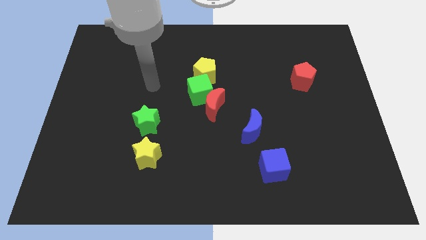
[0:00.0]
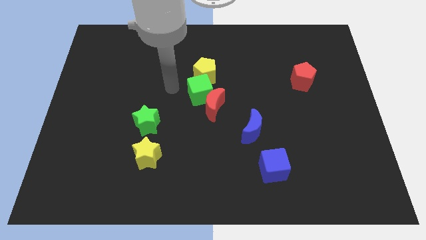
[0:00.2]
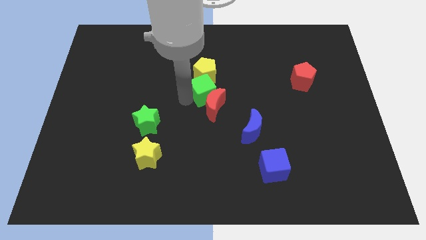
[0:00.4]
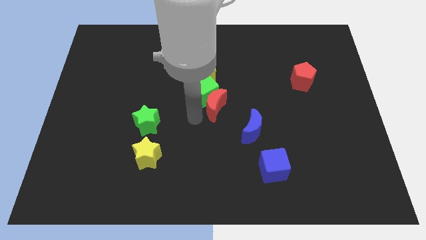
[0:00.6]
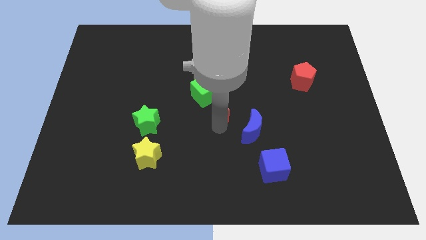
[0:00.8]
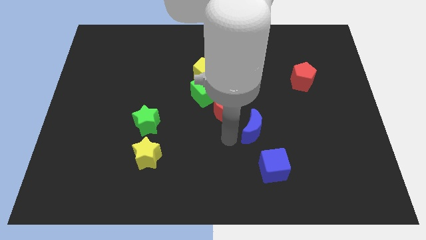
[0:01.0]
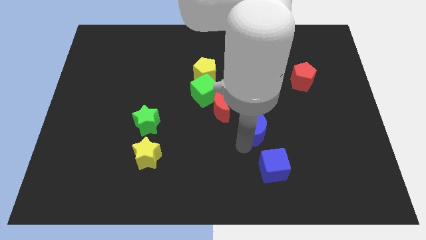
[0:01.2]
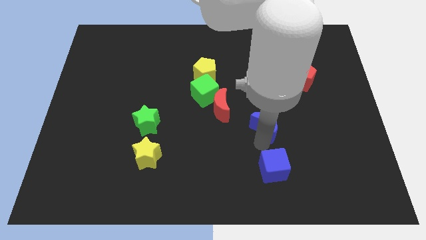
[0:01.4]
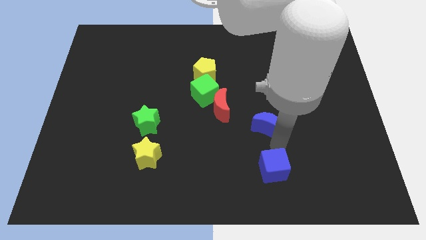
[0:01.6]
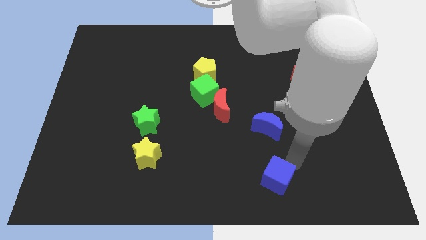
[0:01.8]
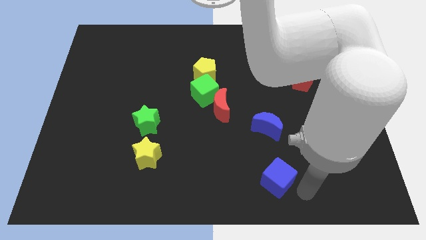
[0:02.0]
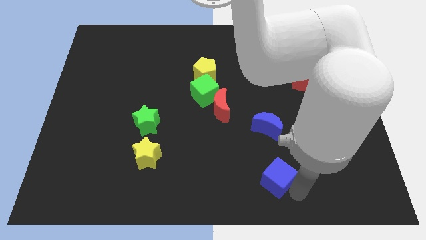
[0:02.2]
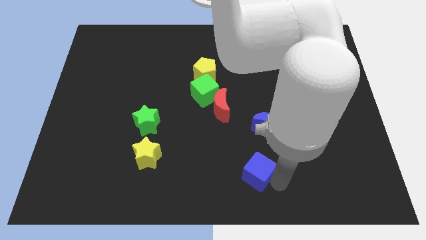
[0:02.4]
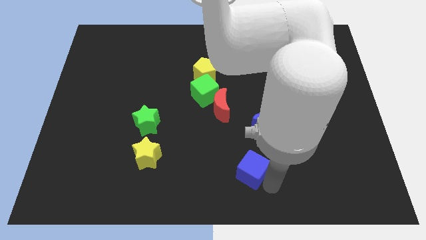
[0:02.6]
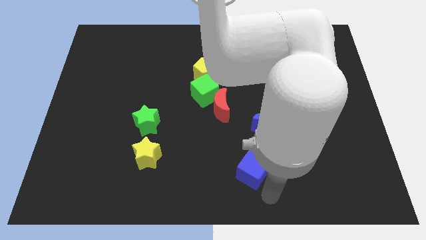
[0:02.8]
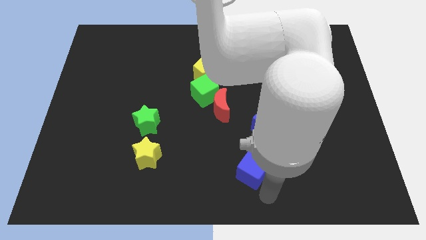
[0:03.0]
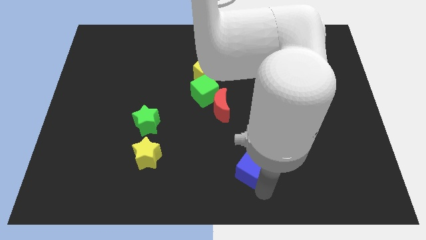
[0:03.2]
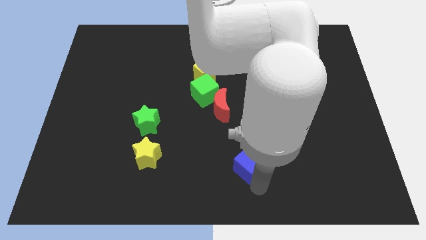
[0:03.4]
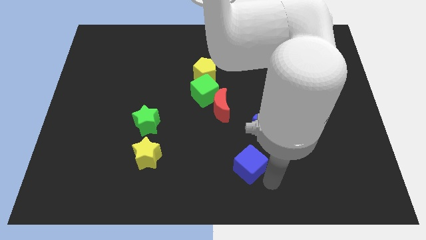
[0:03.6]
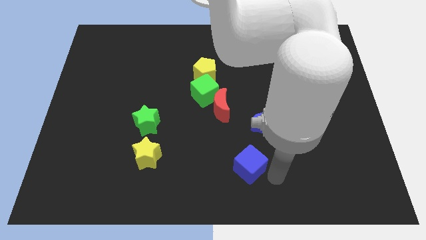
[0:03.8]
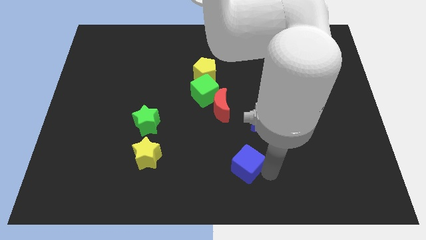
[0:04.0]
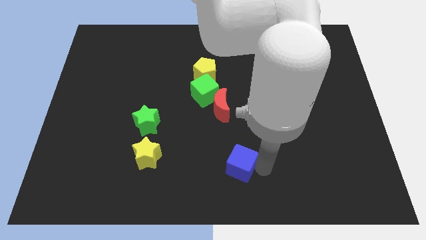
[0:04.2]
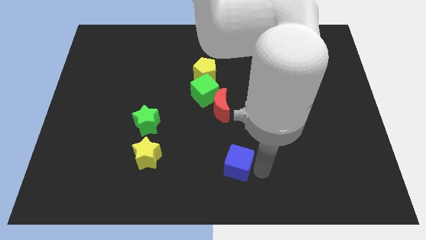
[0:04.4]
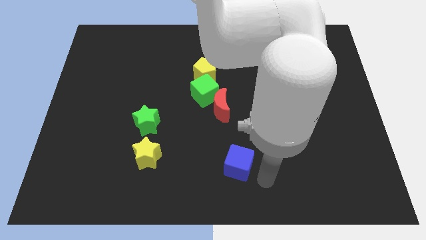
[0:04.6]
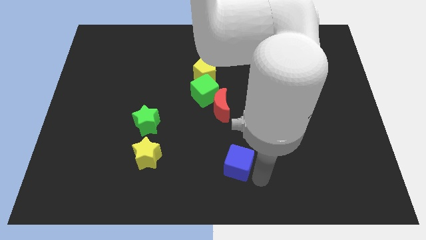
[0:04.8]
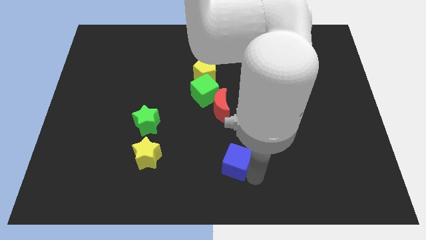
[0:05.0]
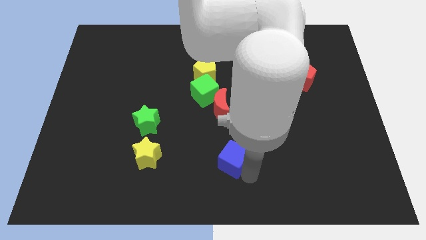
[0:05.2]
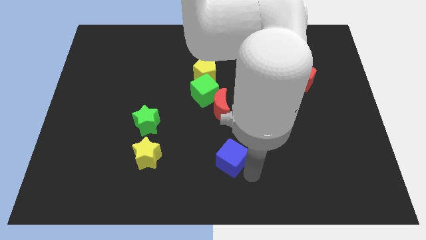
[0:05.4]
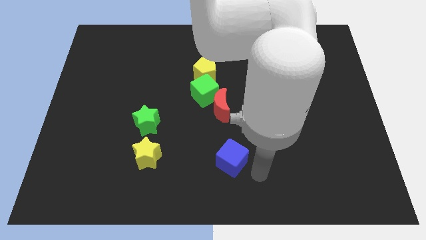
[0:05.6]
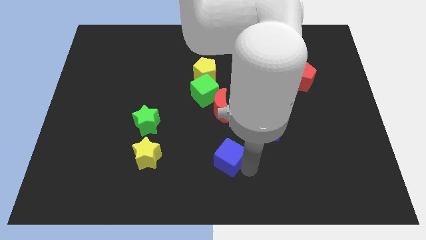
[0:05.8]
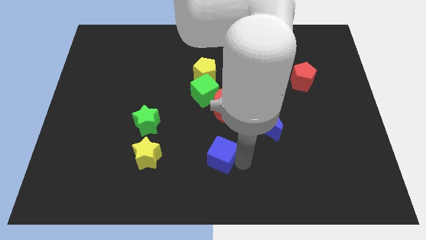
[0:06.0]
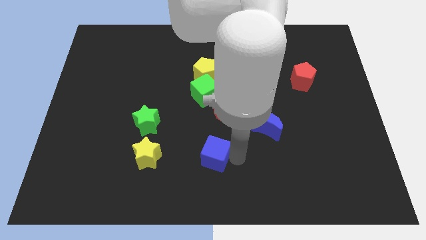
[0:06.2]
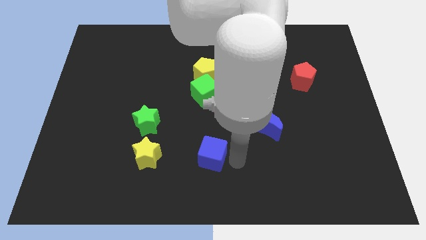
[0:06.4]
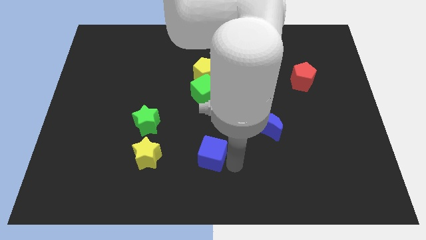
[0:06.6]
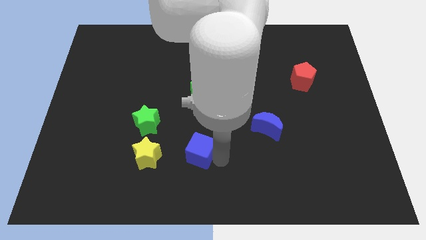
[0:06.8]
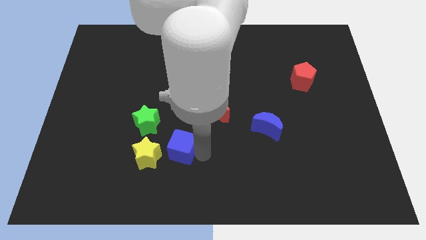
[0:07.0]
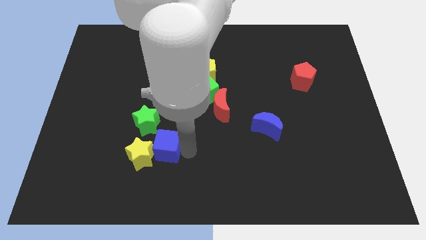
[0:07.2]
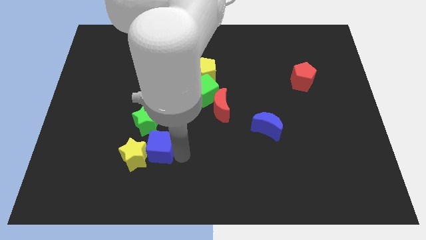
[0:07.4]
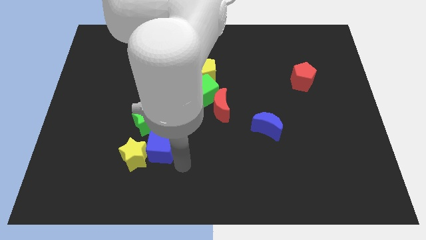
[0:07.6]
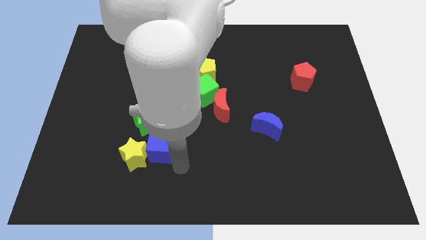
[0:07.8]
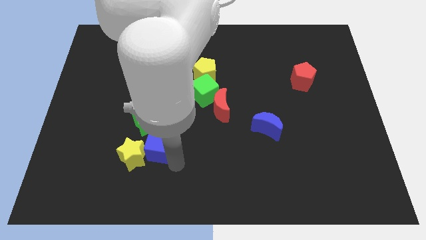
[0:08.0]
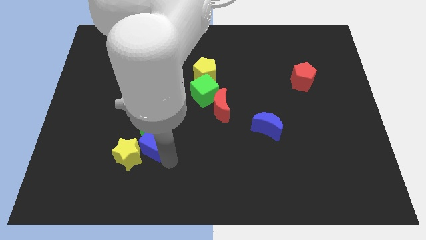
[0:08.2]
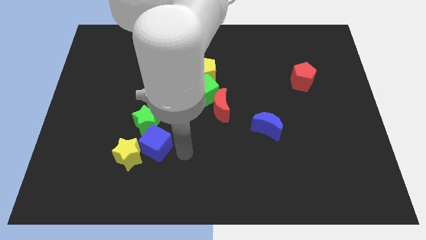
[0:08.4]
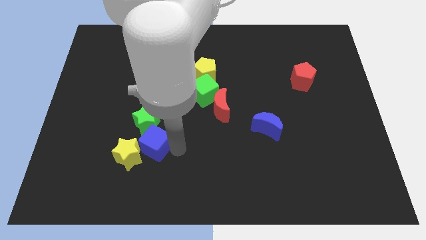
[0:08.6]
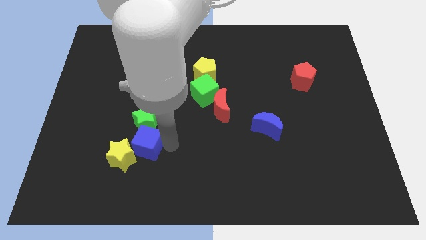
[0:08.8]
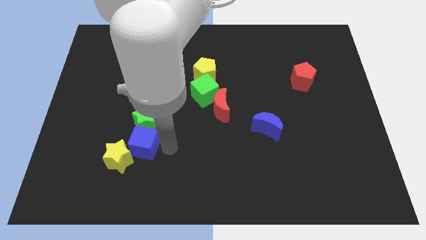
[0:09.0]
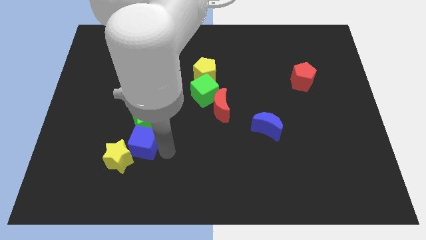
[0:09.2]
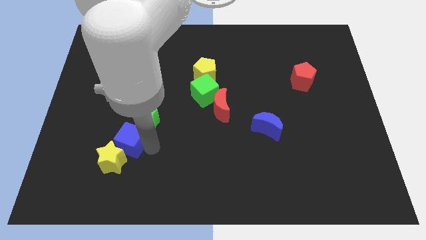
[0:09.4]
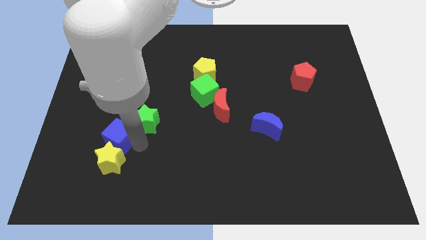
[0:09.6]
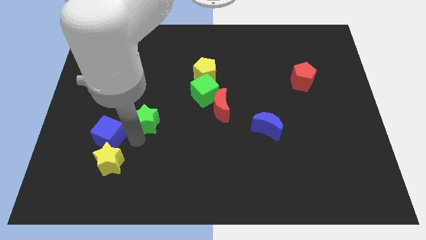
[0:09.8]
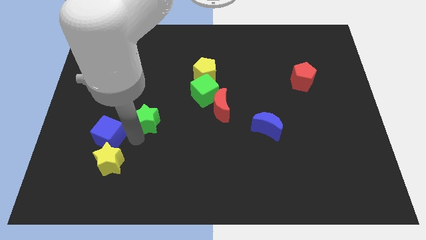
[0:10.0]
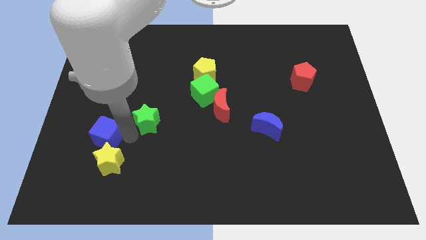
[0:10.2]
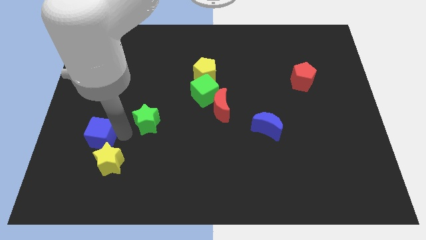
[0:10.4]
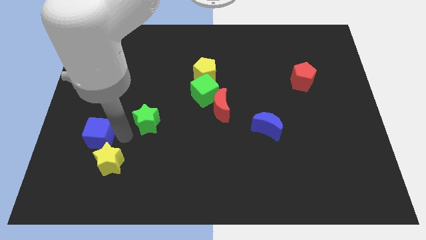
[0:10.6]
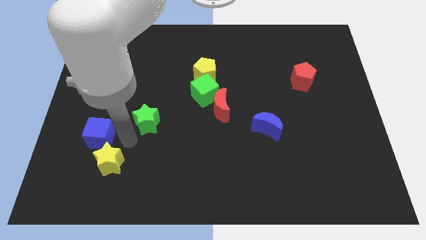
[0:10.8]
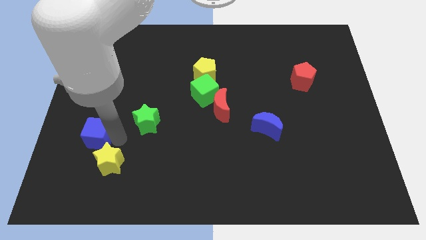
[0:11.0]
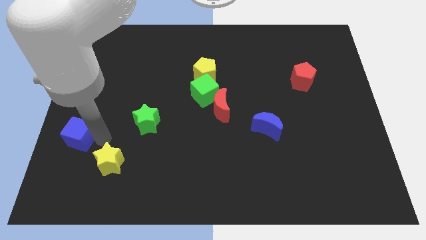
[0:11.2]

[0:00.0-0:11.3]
put the blue cube to the center left

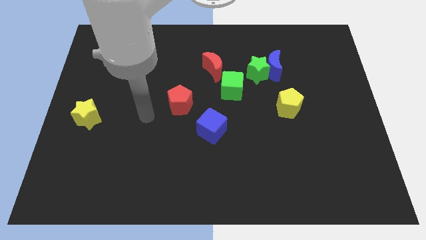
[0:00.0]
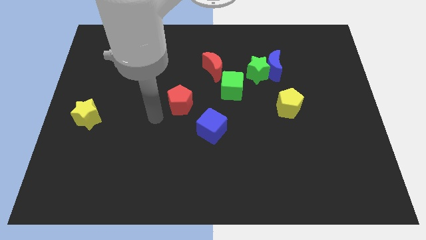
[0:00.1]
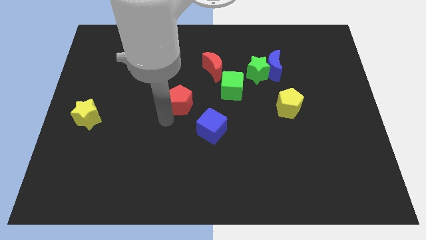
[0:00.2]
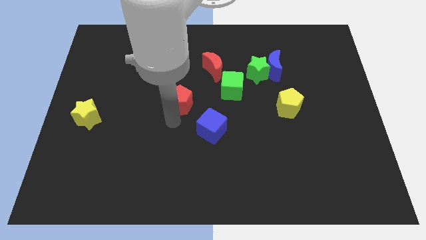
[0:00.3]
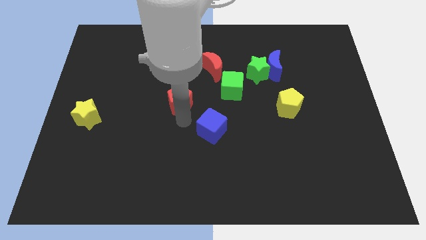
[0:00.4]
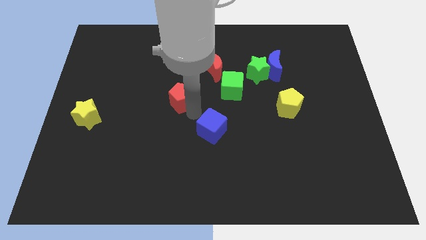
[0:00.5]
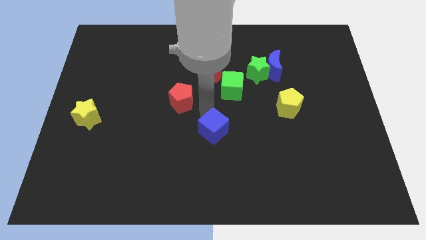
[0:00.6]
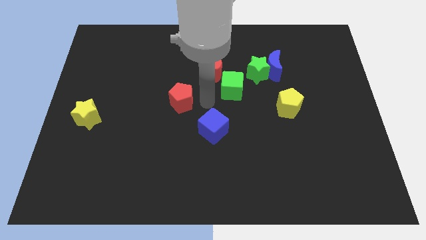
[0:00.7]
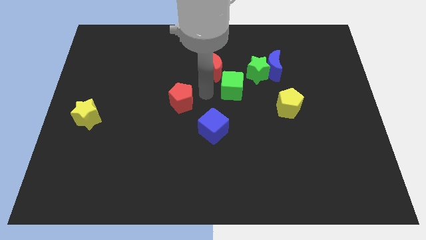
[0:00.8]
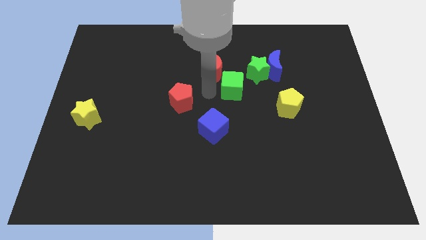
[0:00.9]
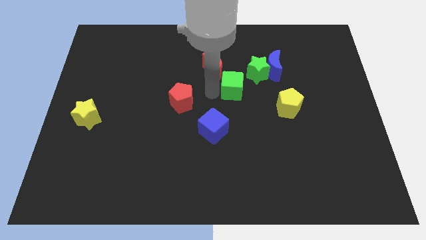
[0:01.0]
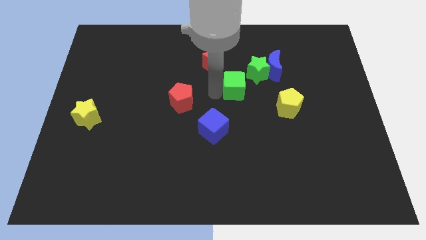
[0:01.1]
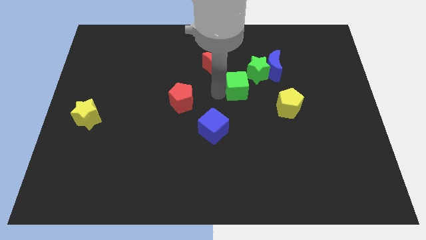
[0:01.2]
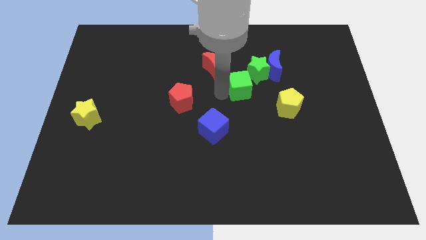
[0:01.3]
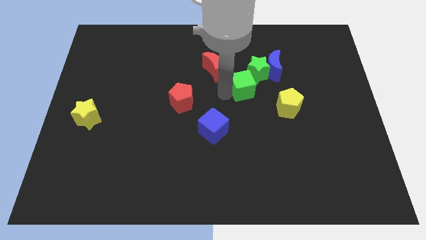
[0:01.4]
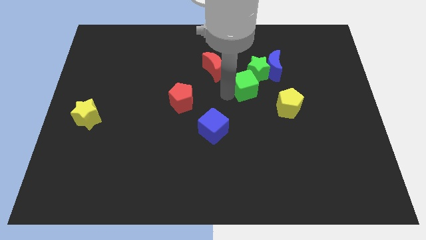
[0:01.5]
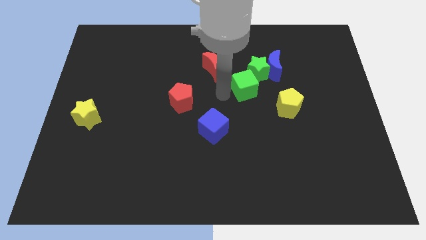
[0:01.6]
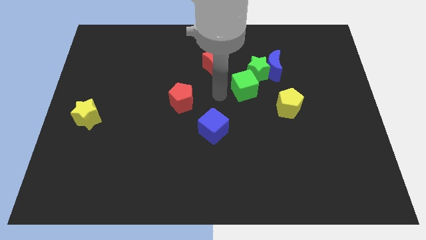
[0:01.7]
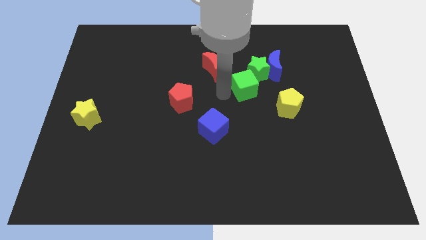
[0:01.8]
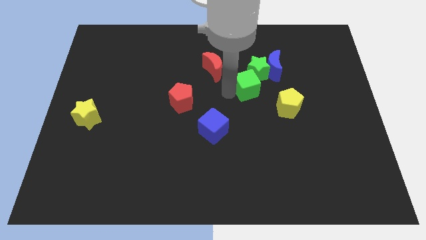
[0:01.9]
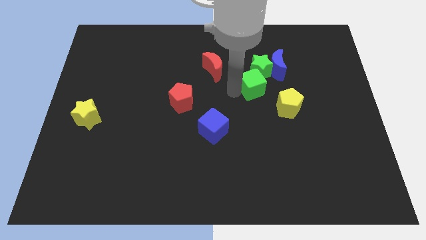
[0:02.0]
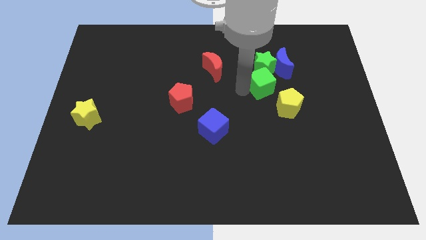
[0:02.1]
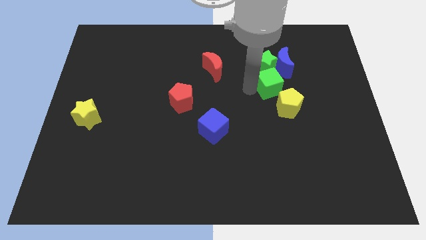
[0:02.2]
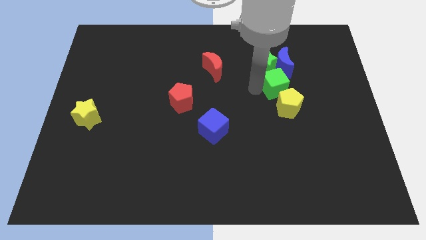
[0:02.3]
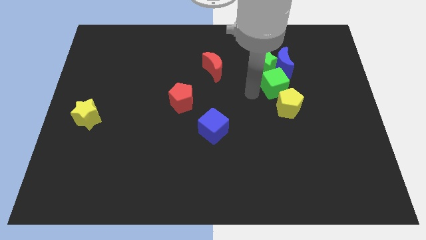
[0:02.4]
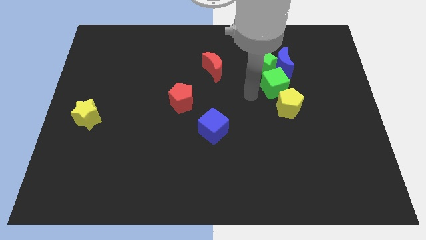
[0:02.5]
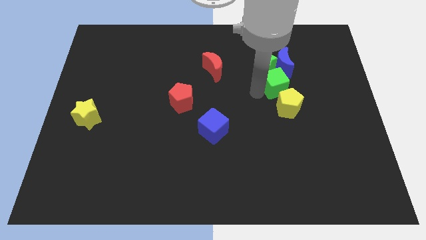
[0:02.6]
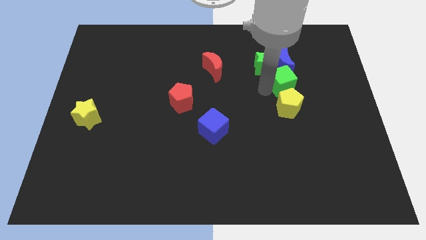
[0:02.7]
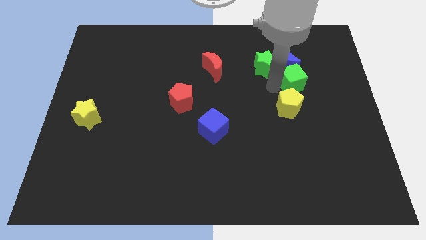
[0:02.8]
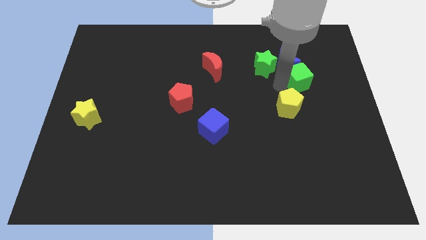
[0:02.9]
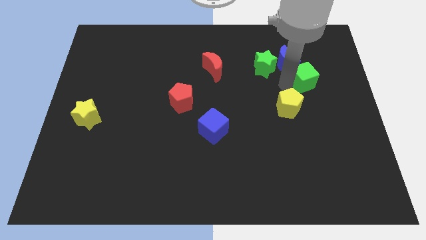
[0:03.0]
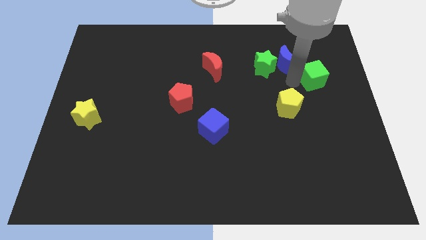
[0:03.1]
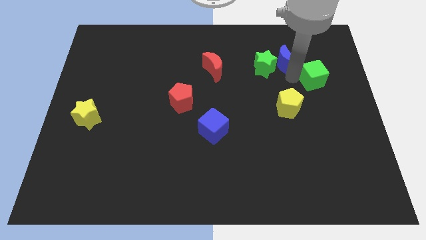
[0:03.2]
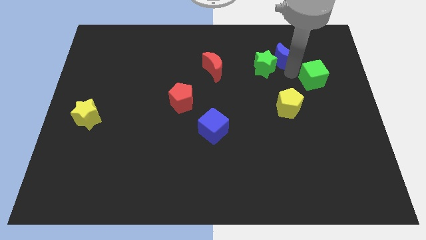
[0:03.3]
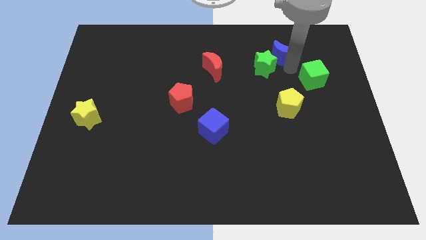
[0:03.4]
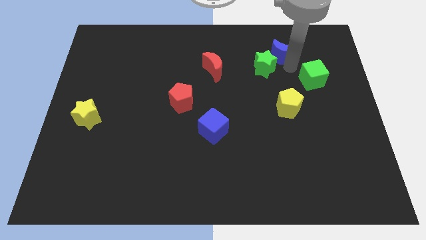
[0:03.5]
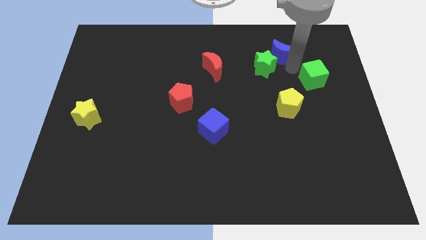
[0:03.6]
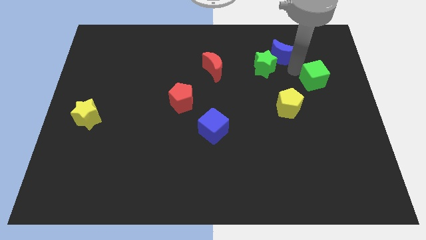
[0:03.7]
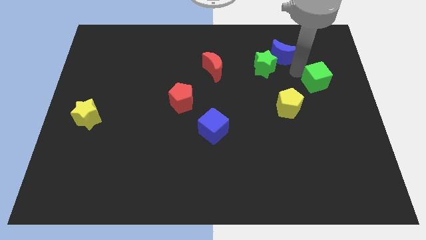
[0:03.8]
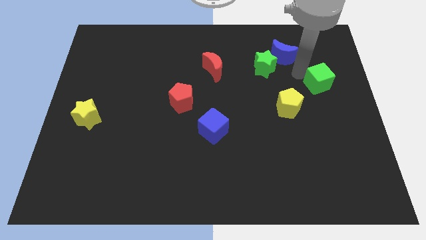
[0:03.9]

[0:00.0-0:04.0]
slide the green cube to the center right
